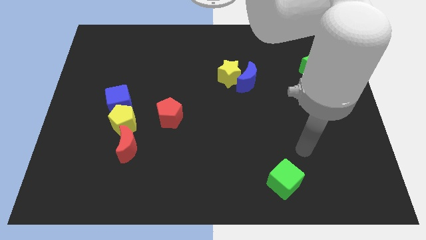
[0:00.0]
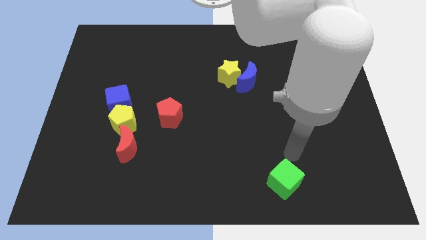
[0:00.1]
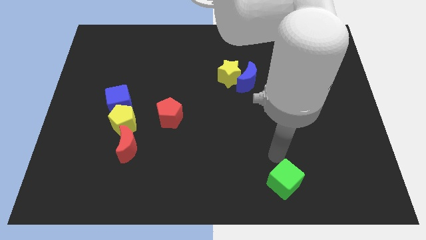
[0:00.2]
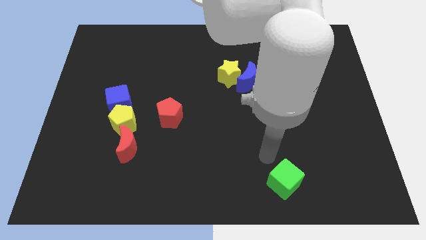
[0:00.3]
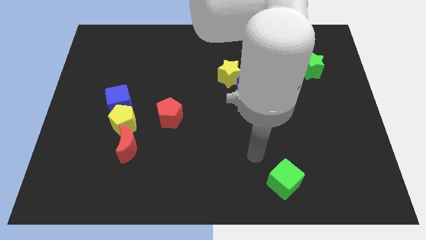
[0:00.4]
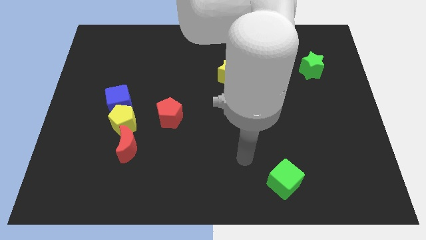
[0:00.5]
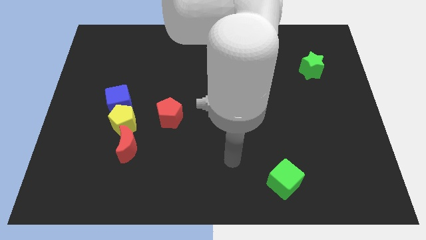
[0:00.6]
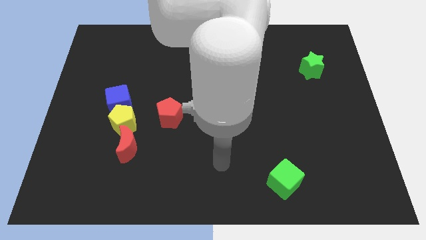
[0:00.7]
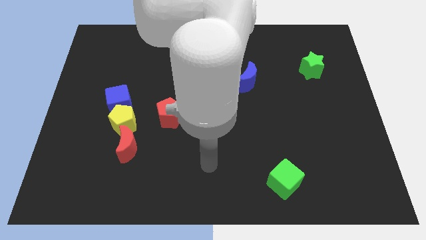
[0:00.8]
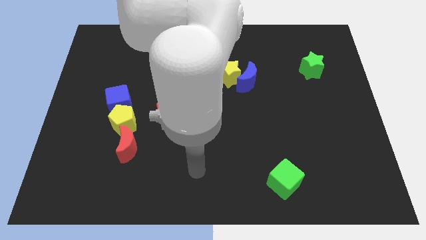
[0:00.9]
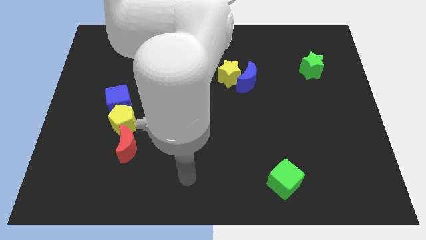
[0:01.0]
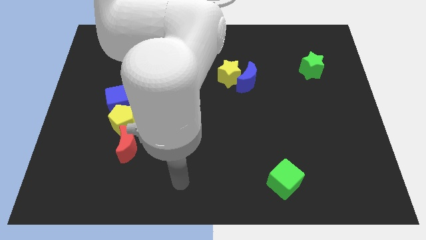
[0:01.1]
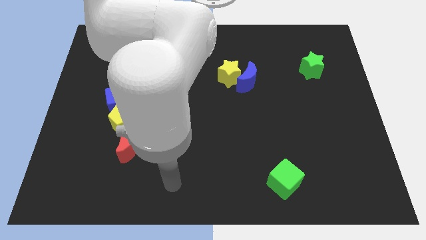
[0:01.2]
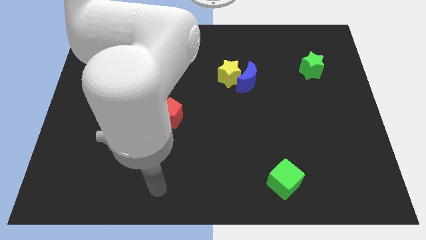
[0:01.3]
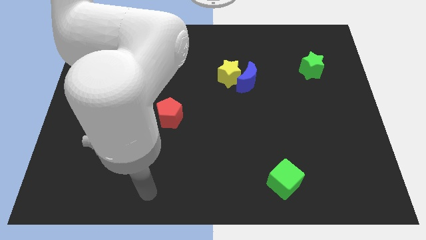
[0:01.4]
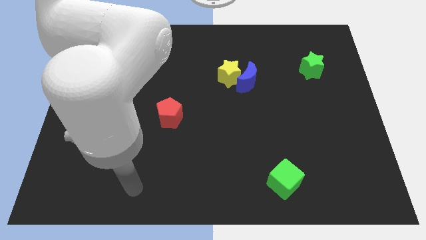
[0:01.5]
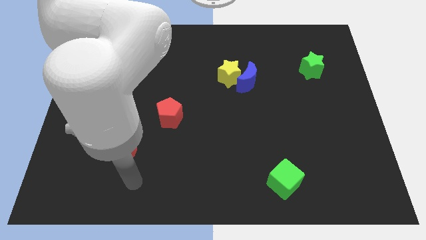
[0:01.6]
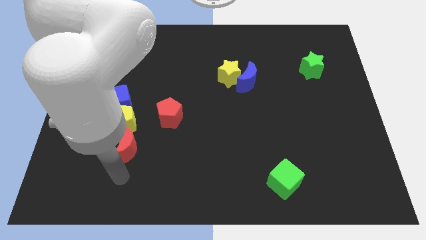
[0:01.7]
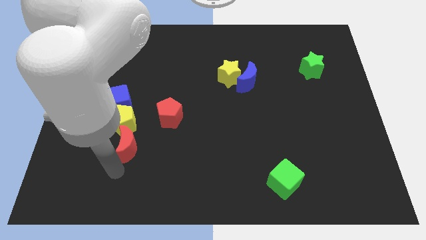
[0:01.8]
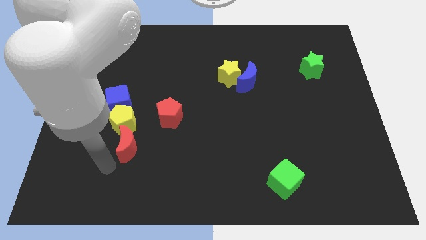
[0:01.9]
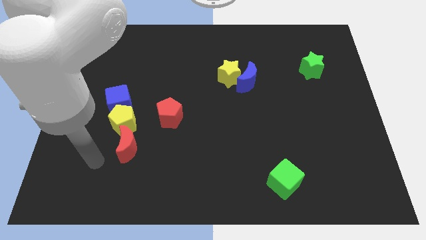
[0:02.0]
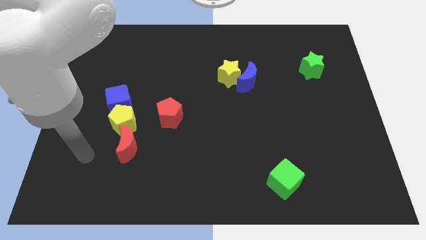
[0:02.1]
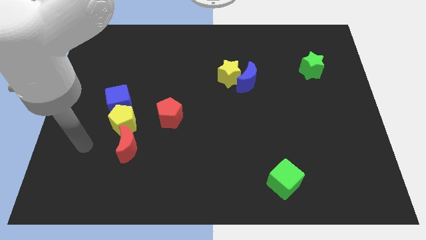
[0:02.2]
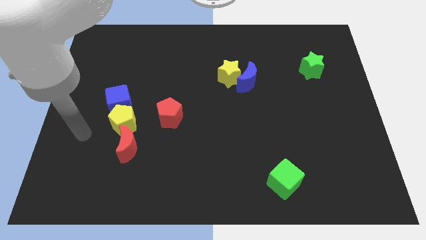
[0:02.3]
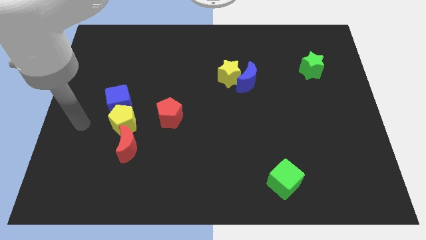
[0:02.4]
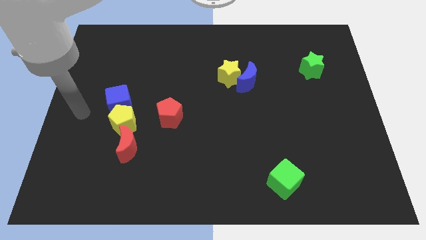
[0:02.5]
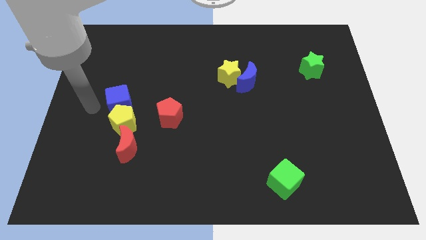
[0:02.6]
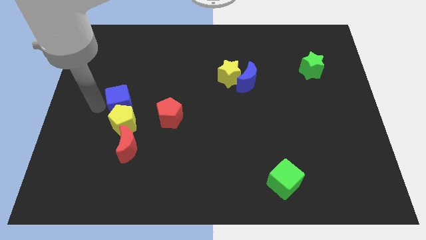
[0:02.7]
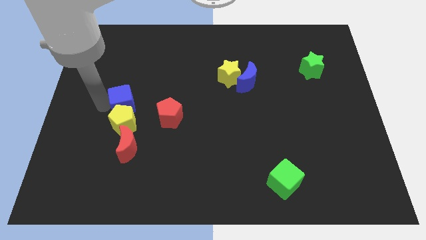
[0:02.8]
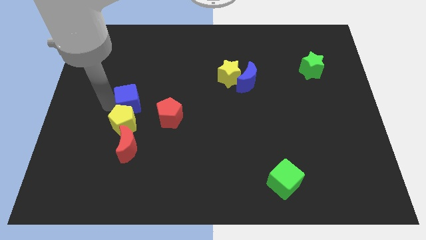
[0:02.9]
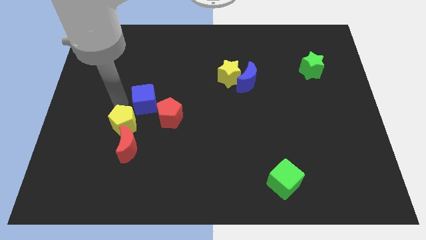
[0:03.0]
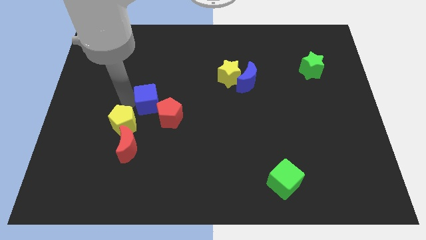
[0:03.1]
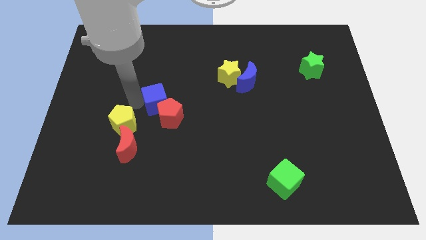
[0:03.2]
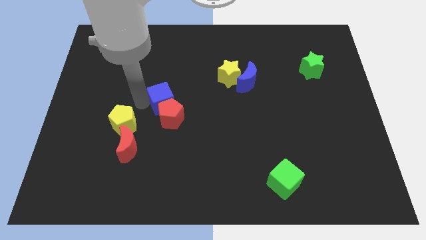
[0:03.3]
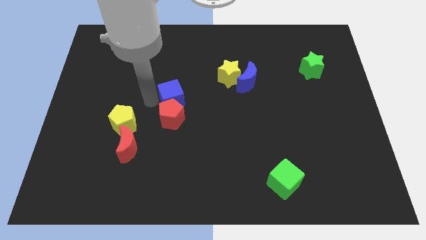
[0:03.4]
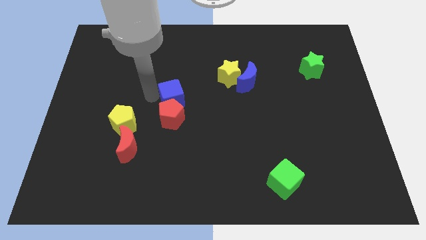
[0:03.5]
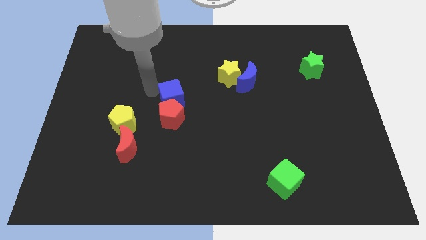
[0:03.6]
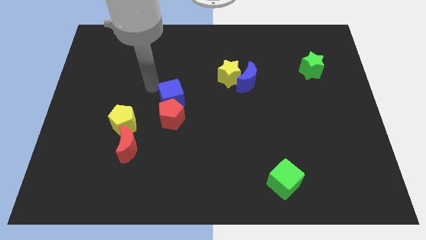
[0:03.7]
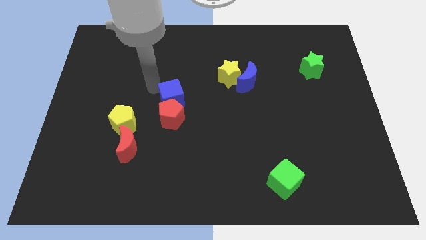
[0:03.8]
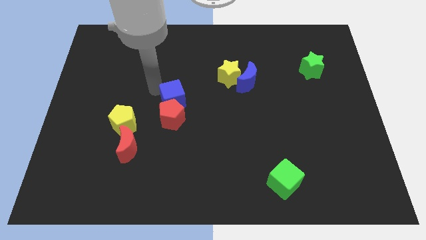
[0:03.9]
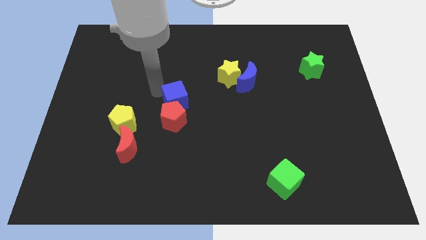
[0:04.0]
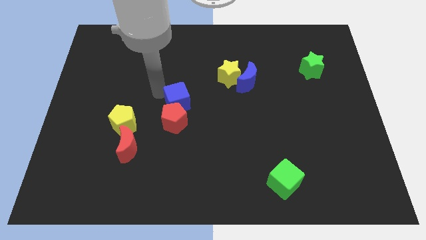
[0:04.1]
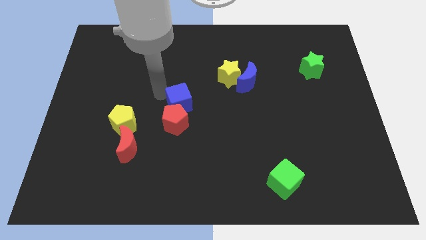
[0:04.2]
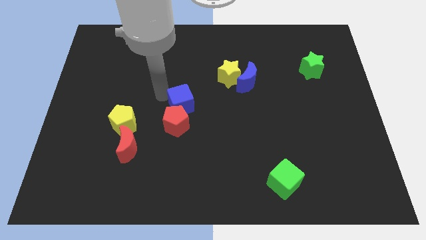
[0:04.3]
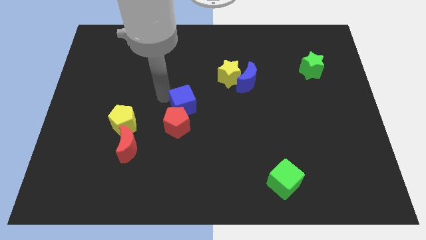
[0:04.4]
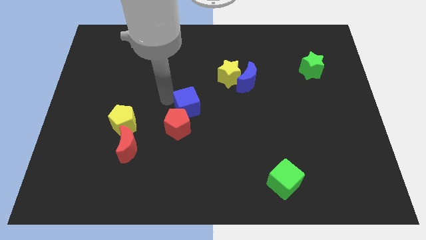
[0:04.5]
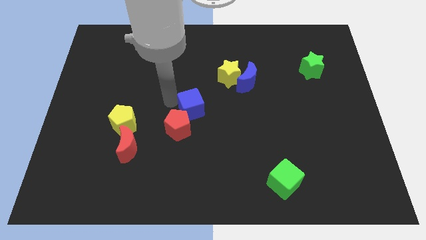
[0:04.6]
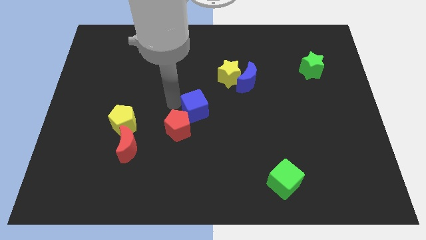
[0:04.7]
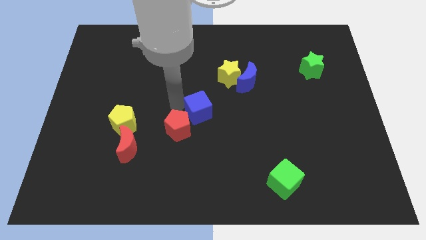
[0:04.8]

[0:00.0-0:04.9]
push the blue cube right of the red pentagon

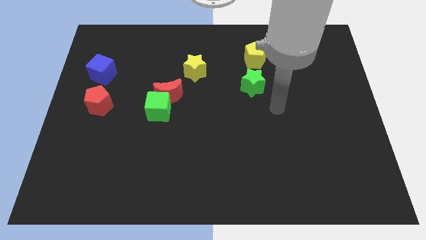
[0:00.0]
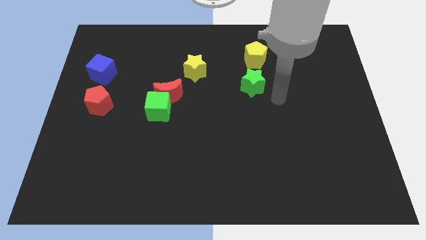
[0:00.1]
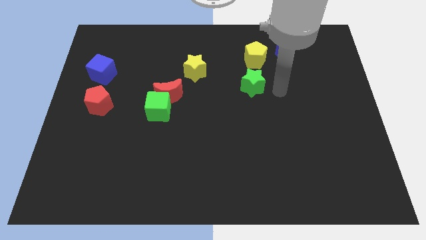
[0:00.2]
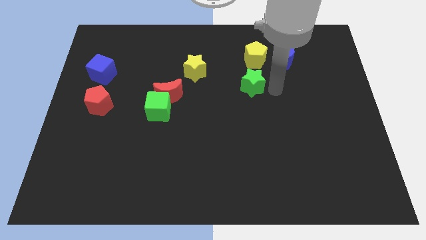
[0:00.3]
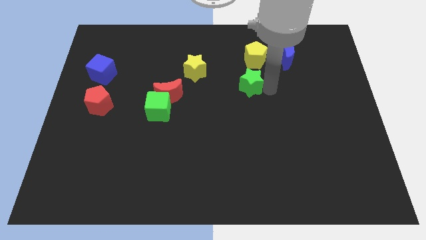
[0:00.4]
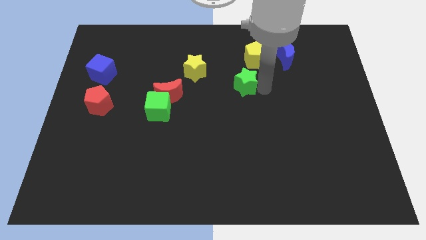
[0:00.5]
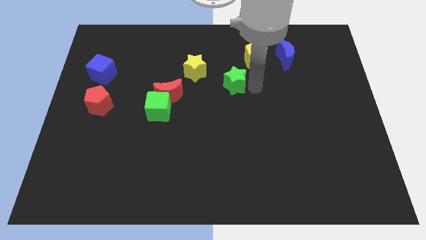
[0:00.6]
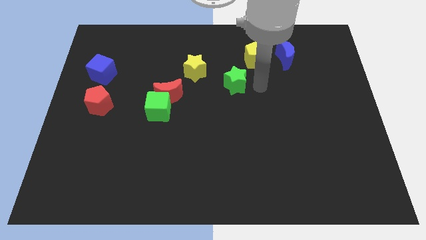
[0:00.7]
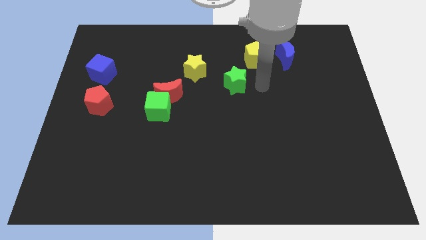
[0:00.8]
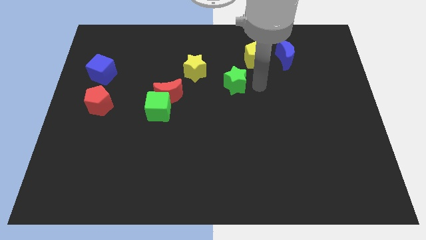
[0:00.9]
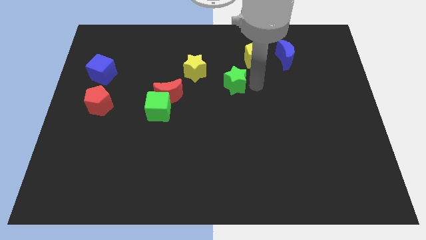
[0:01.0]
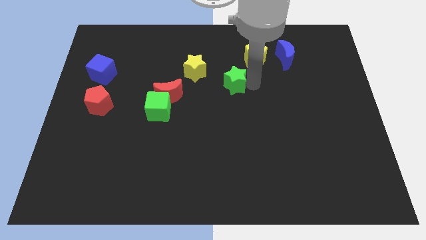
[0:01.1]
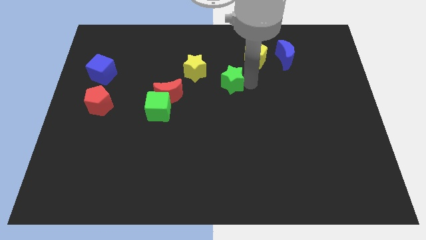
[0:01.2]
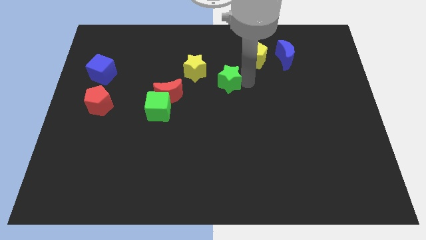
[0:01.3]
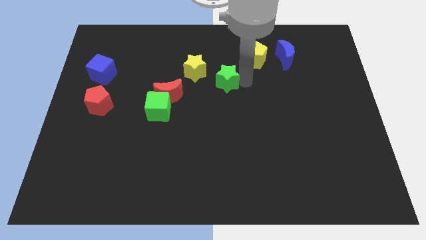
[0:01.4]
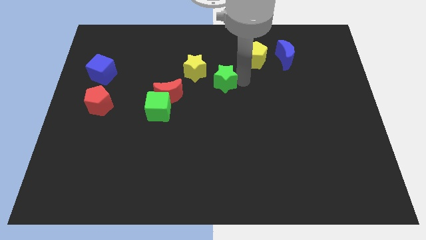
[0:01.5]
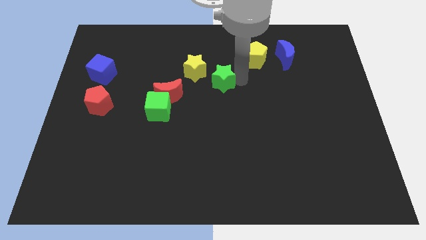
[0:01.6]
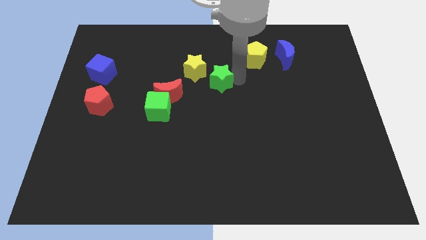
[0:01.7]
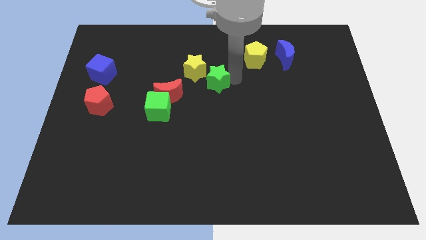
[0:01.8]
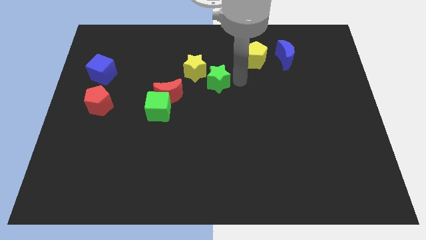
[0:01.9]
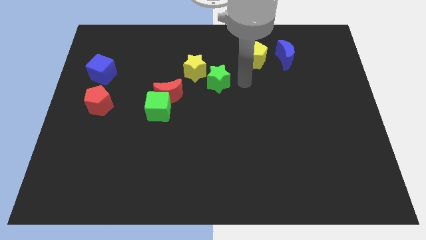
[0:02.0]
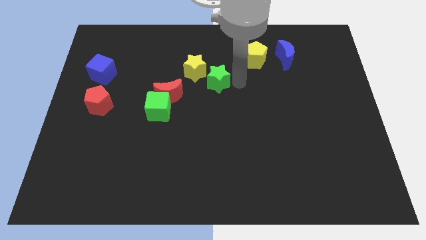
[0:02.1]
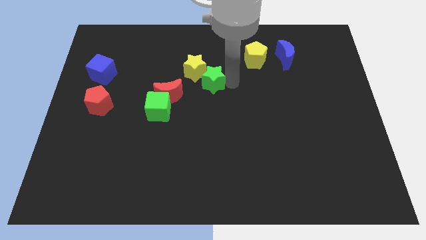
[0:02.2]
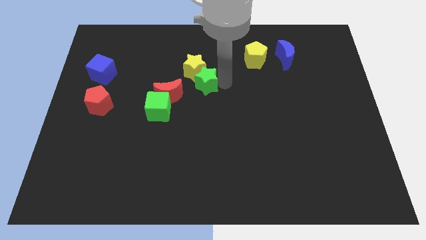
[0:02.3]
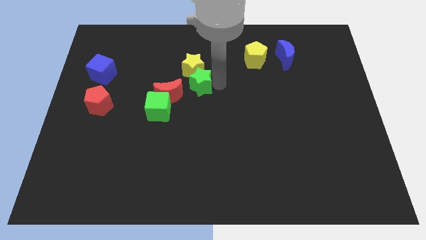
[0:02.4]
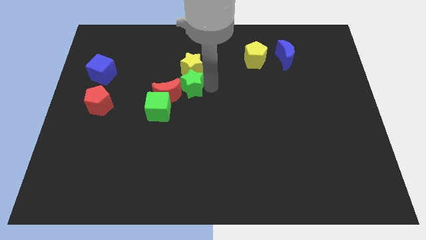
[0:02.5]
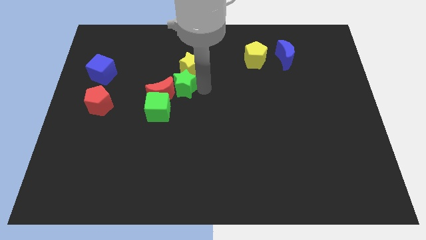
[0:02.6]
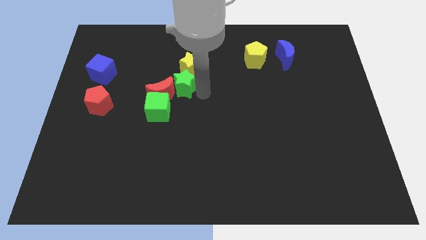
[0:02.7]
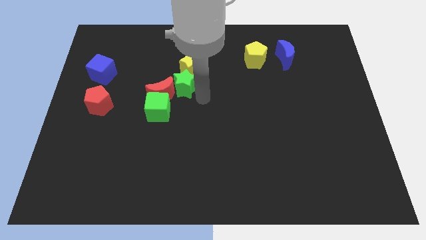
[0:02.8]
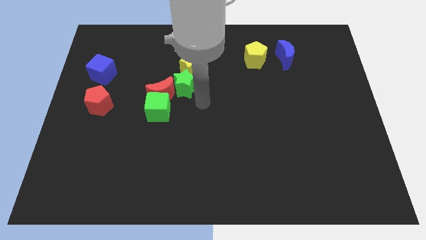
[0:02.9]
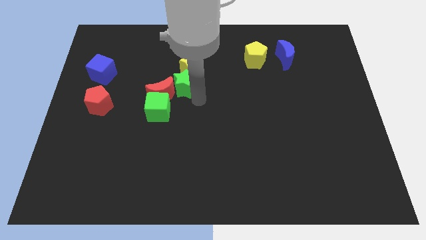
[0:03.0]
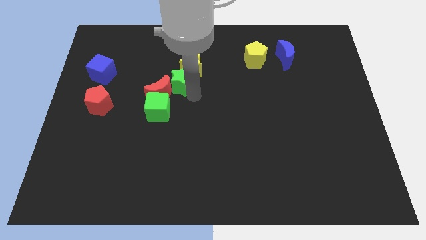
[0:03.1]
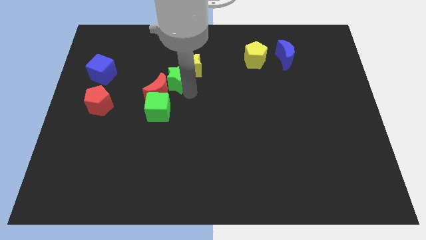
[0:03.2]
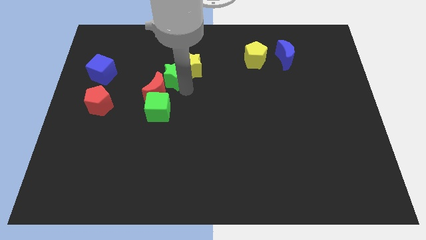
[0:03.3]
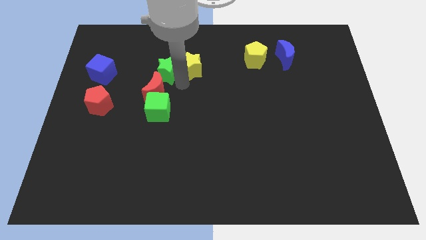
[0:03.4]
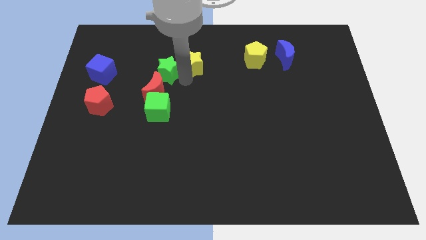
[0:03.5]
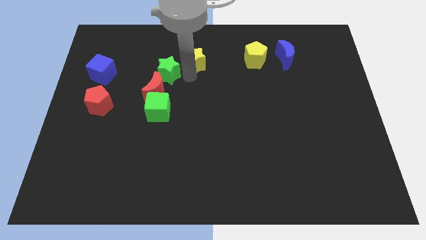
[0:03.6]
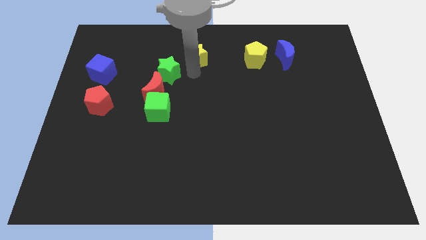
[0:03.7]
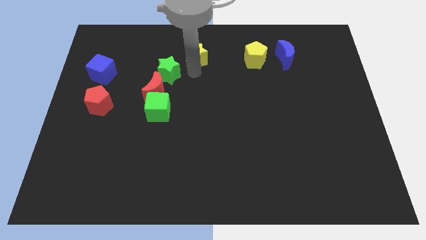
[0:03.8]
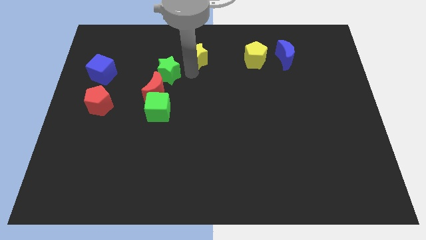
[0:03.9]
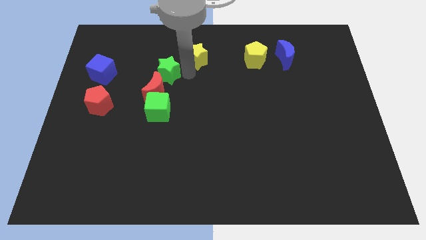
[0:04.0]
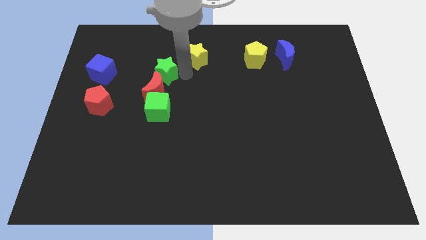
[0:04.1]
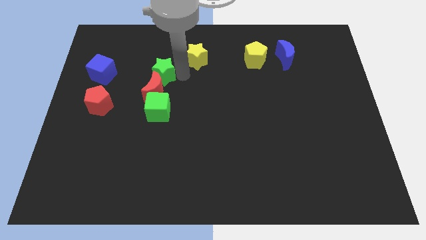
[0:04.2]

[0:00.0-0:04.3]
push the green star to the top left of the red moon
